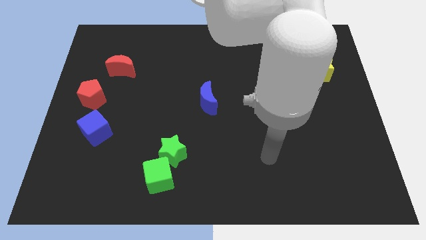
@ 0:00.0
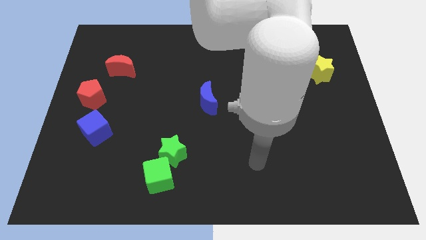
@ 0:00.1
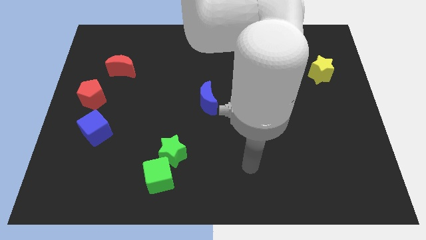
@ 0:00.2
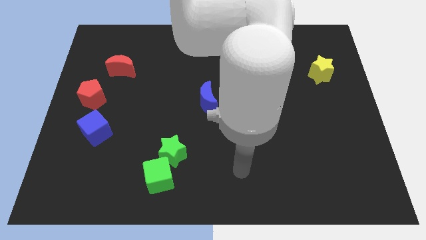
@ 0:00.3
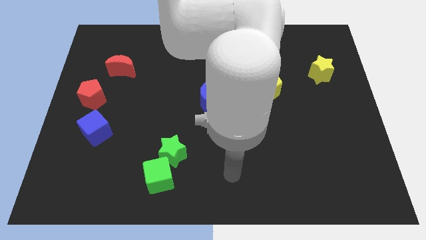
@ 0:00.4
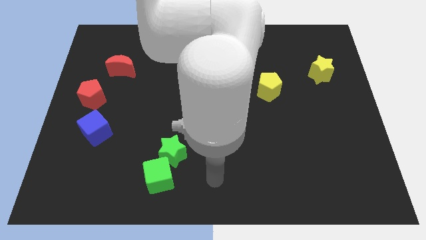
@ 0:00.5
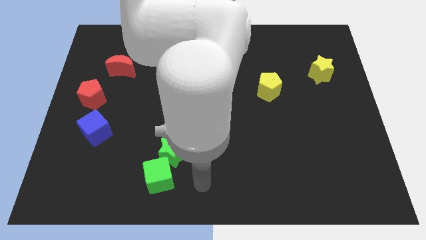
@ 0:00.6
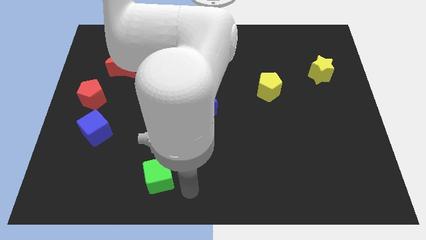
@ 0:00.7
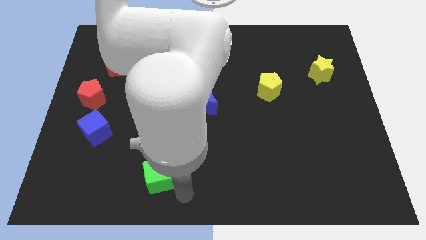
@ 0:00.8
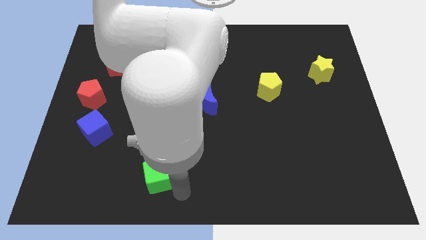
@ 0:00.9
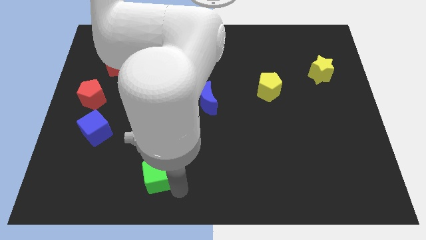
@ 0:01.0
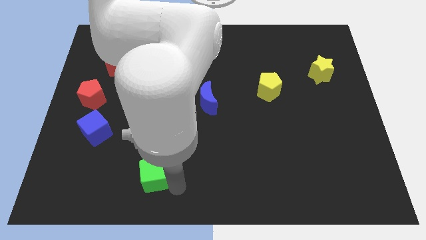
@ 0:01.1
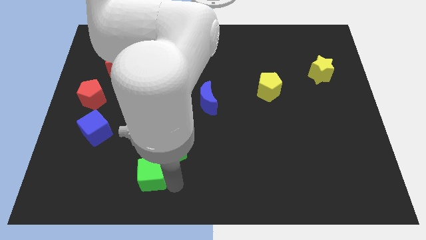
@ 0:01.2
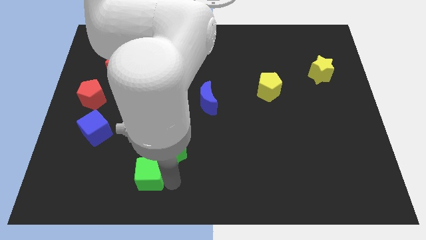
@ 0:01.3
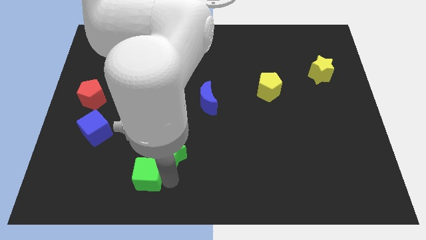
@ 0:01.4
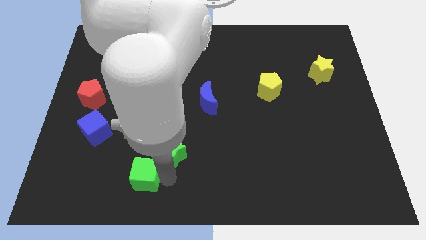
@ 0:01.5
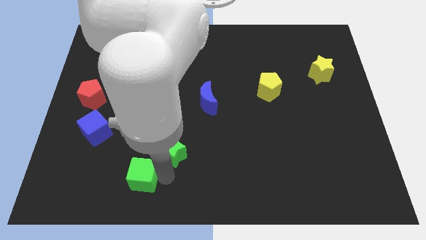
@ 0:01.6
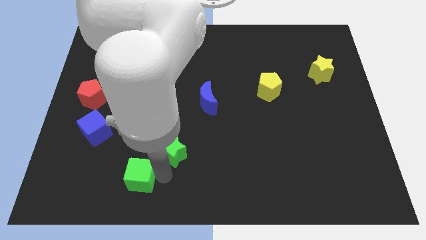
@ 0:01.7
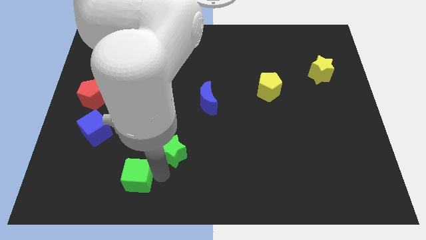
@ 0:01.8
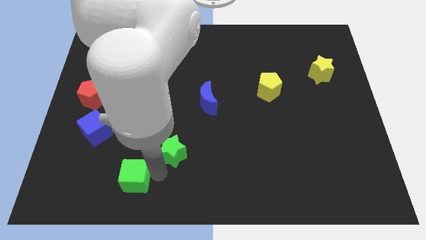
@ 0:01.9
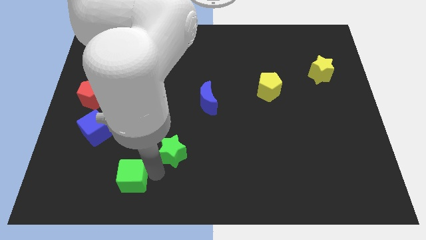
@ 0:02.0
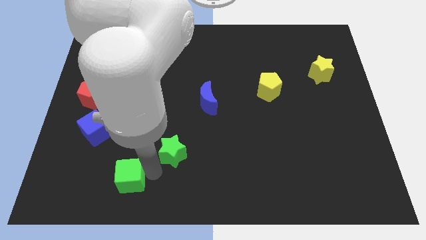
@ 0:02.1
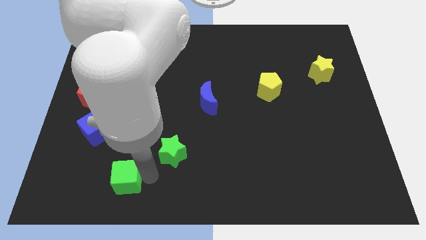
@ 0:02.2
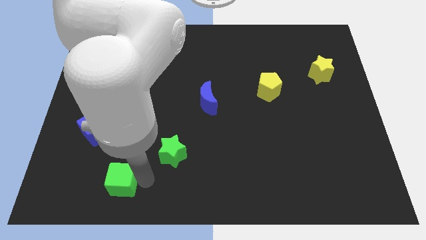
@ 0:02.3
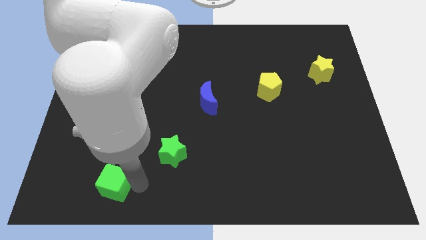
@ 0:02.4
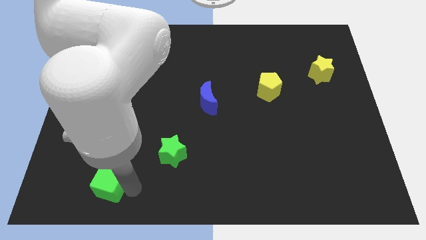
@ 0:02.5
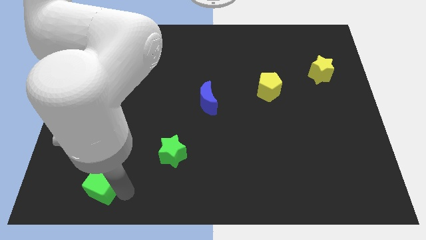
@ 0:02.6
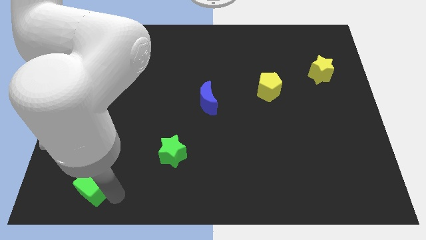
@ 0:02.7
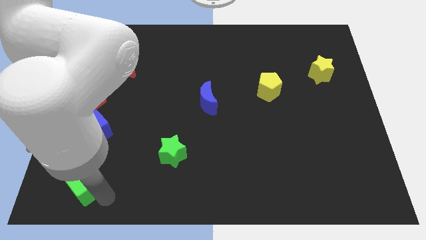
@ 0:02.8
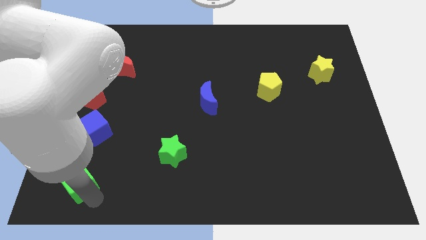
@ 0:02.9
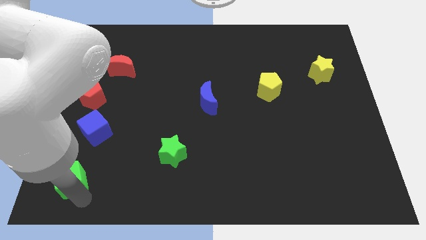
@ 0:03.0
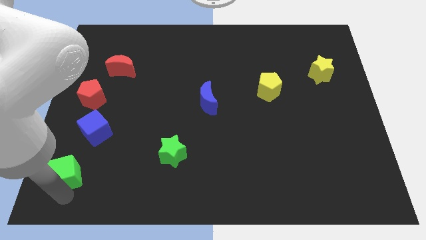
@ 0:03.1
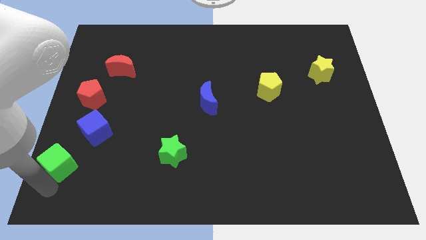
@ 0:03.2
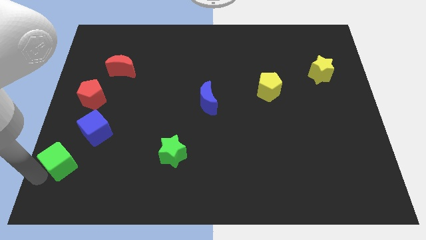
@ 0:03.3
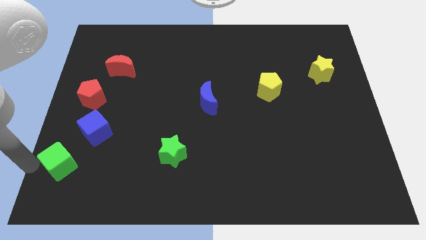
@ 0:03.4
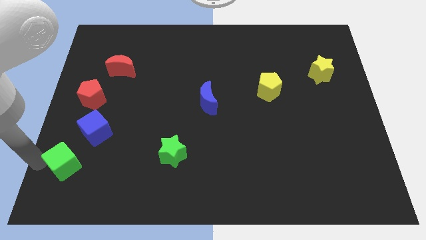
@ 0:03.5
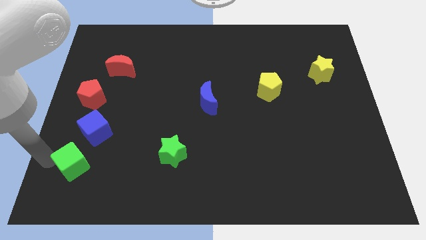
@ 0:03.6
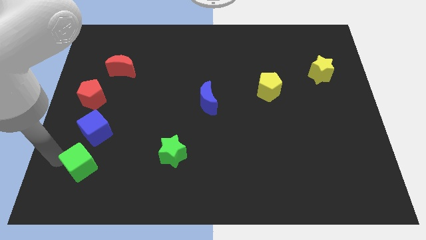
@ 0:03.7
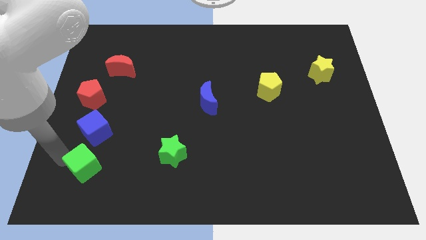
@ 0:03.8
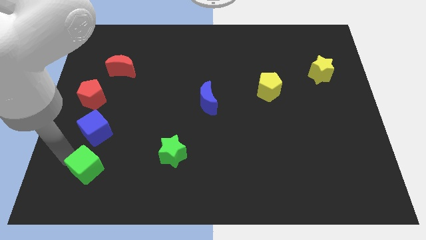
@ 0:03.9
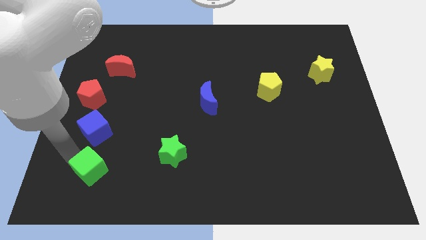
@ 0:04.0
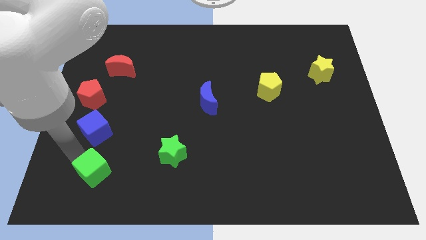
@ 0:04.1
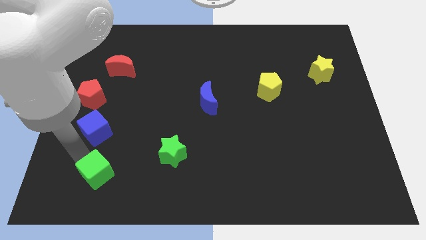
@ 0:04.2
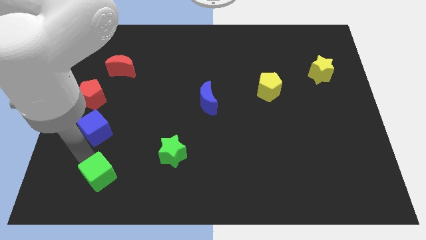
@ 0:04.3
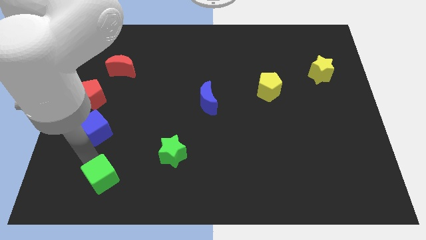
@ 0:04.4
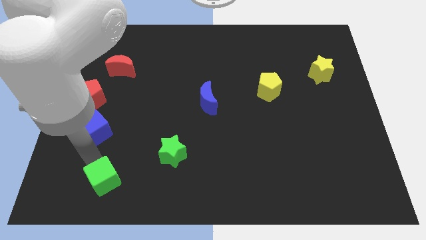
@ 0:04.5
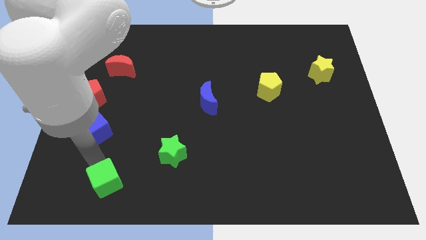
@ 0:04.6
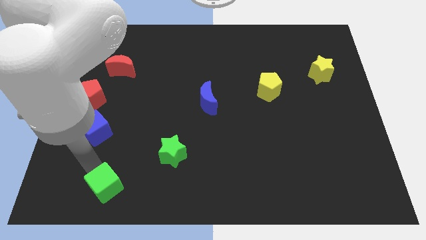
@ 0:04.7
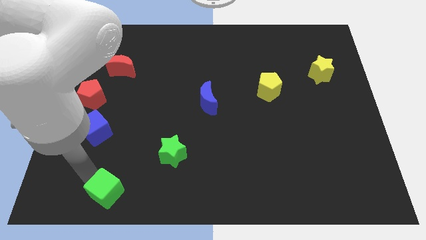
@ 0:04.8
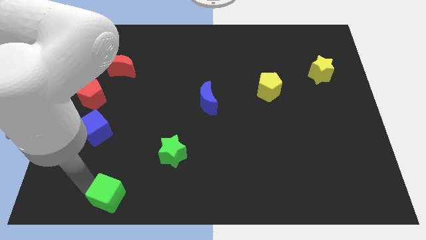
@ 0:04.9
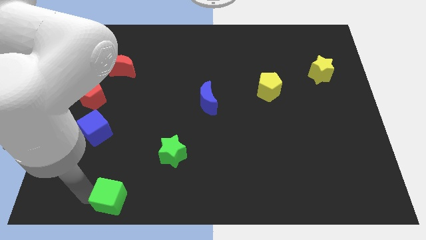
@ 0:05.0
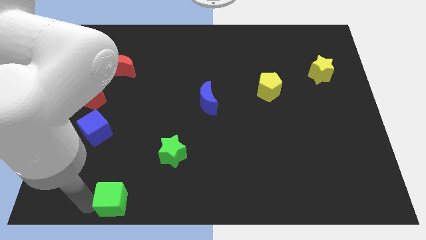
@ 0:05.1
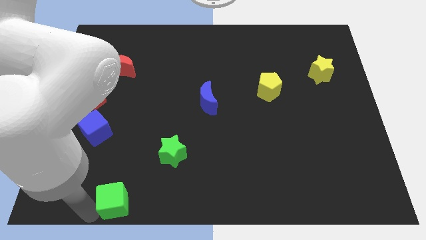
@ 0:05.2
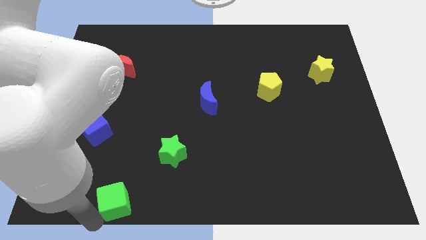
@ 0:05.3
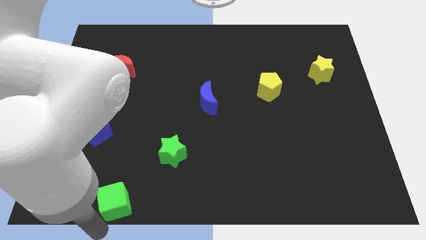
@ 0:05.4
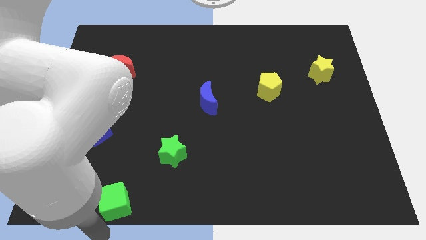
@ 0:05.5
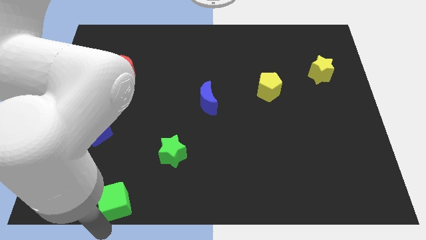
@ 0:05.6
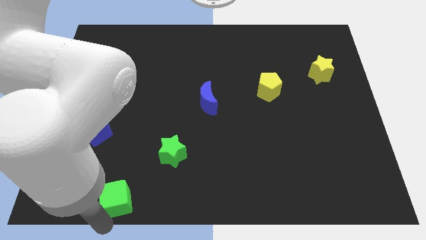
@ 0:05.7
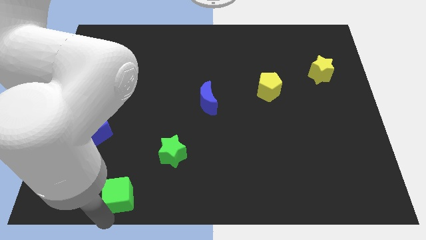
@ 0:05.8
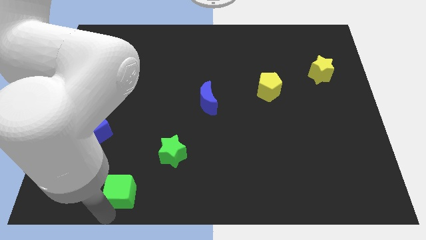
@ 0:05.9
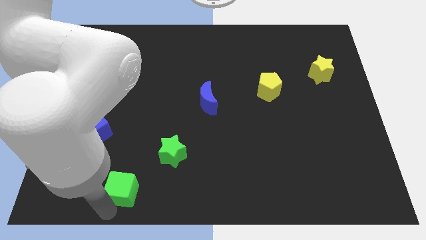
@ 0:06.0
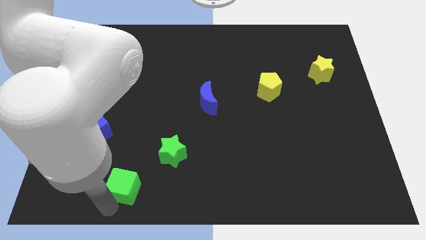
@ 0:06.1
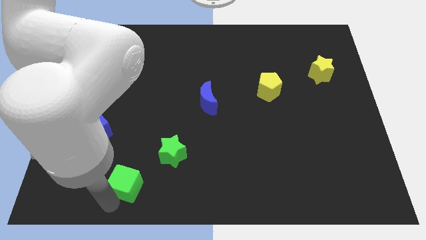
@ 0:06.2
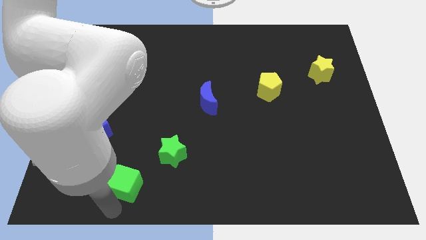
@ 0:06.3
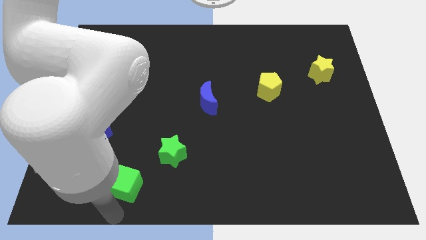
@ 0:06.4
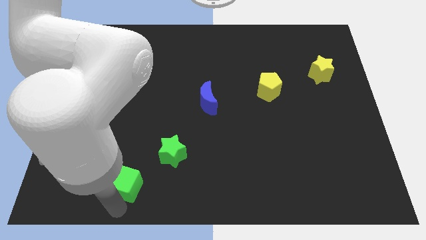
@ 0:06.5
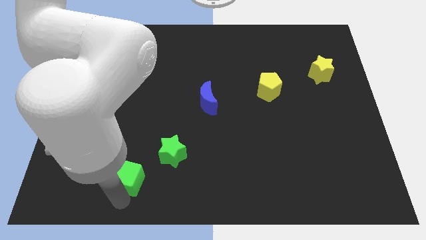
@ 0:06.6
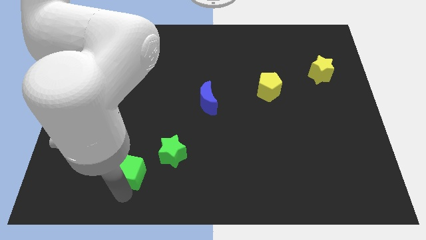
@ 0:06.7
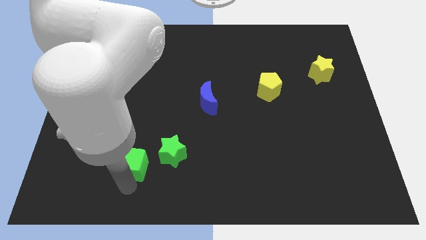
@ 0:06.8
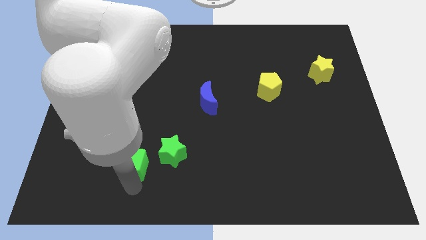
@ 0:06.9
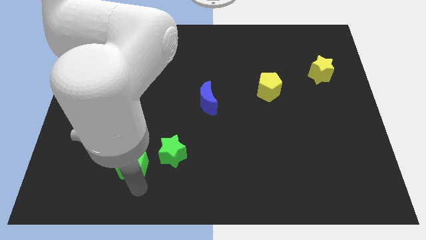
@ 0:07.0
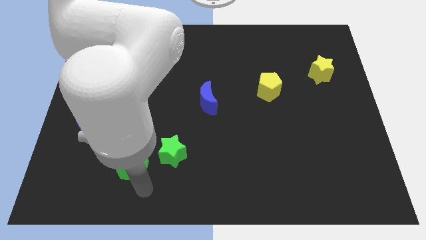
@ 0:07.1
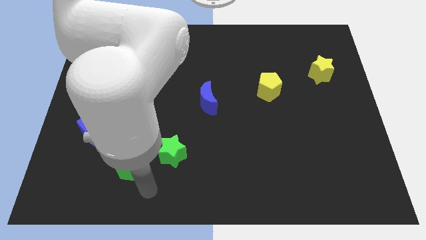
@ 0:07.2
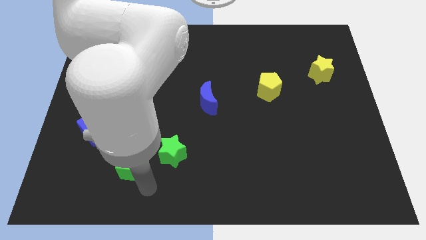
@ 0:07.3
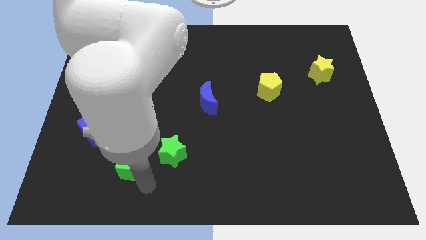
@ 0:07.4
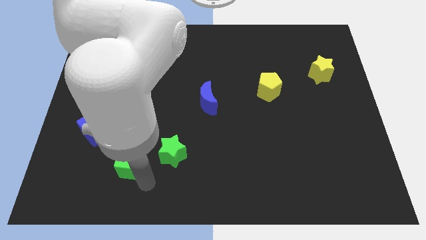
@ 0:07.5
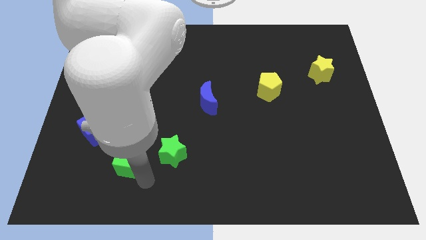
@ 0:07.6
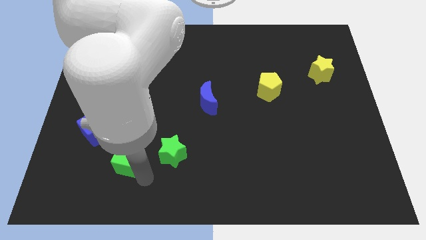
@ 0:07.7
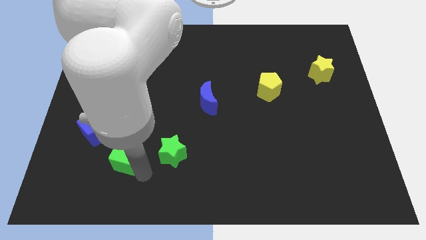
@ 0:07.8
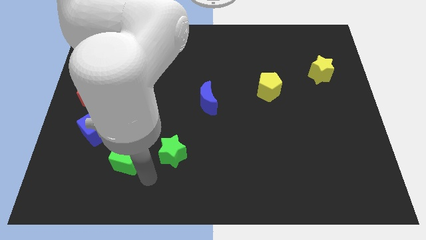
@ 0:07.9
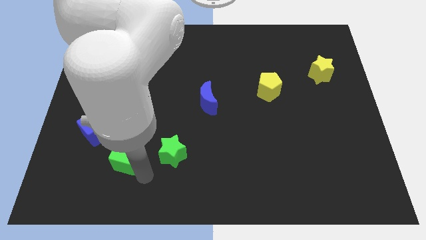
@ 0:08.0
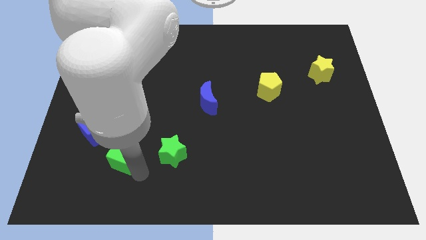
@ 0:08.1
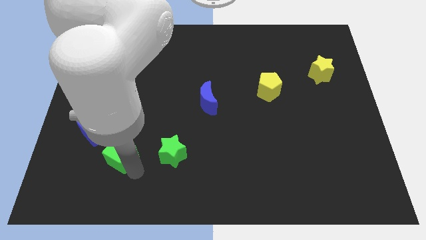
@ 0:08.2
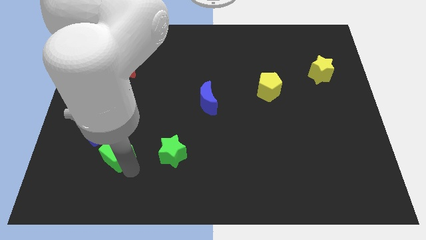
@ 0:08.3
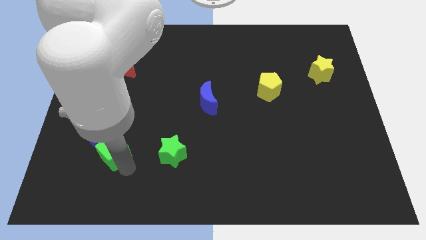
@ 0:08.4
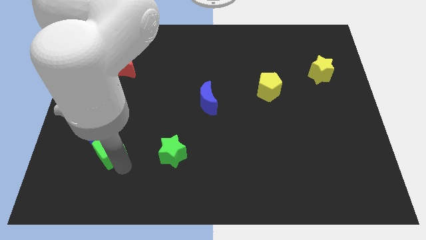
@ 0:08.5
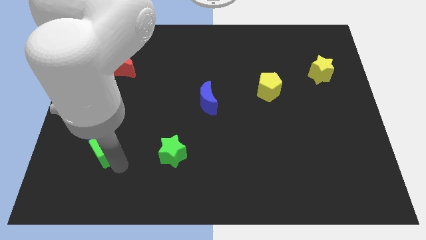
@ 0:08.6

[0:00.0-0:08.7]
put the green cube close to the blue cube
